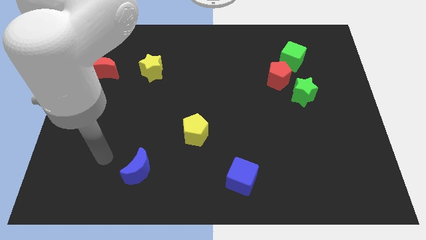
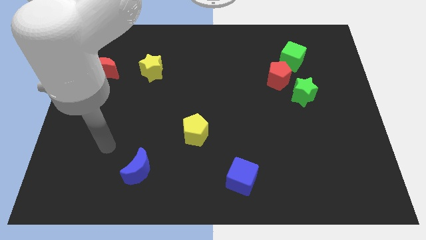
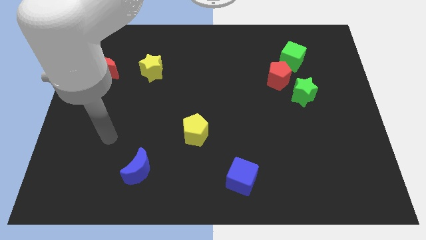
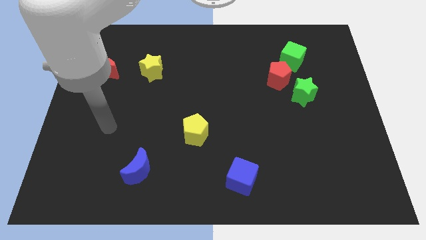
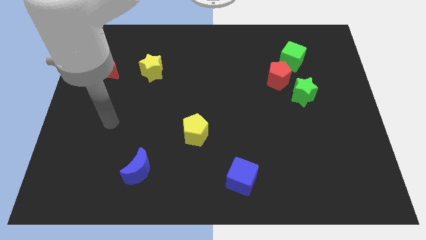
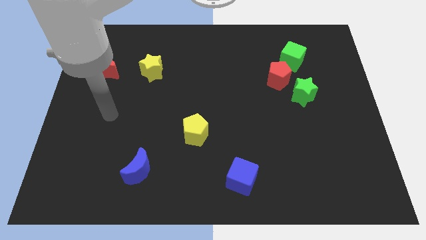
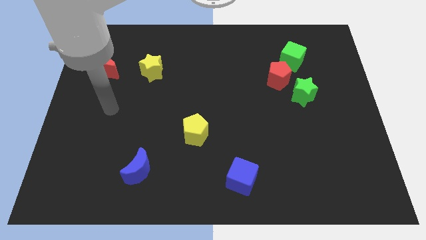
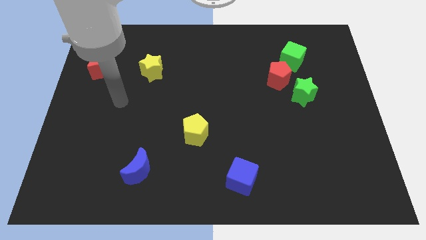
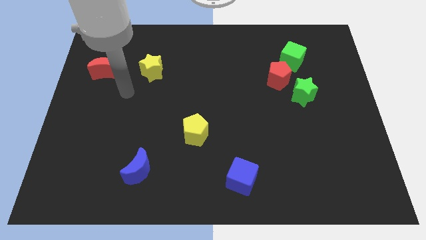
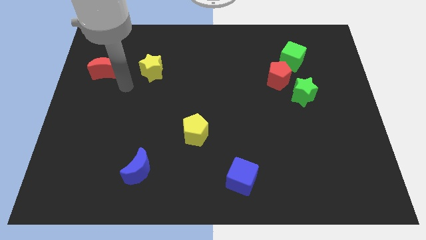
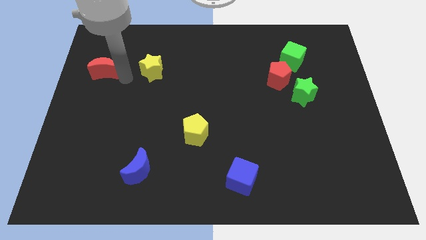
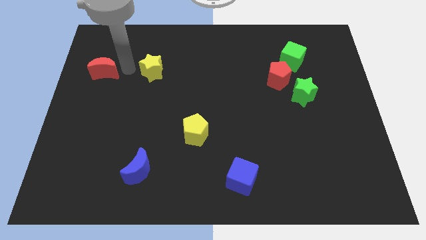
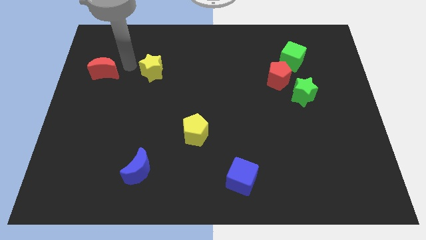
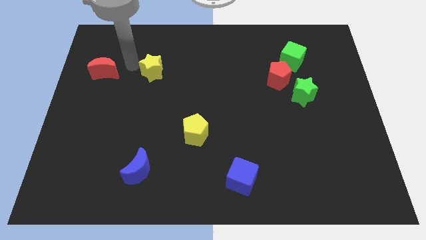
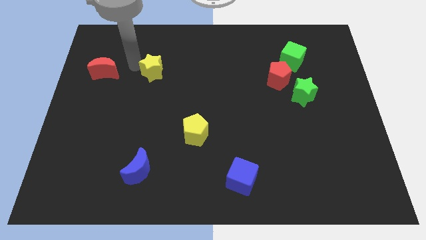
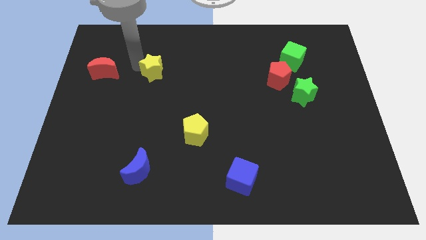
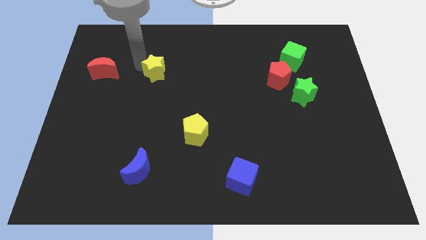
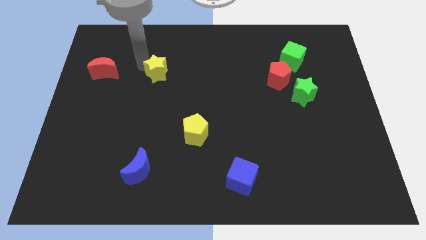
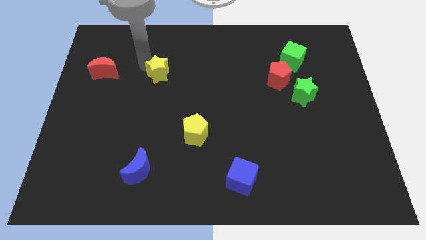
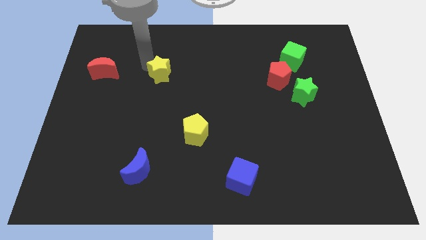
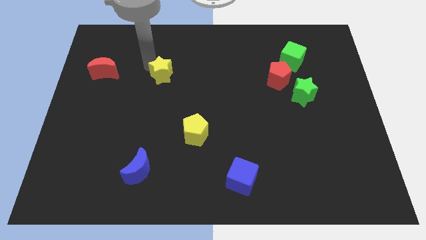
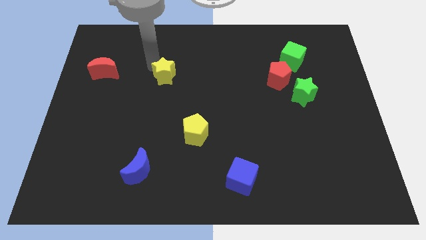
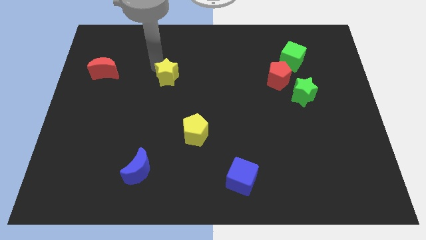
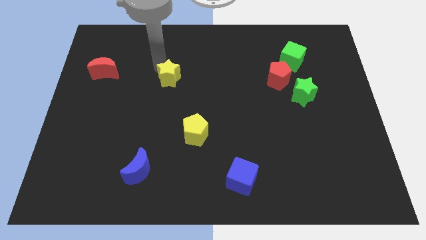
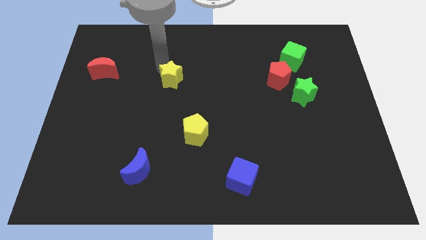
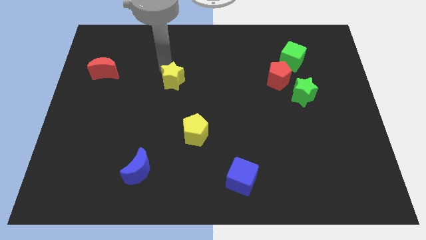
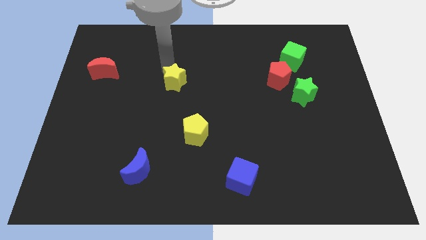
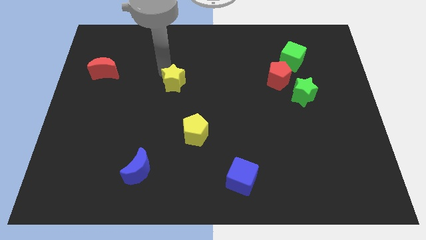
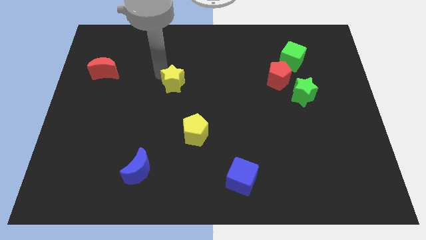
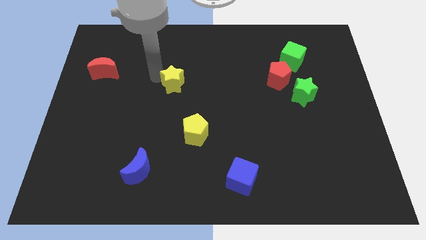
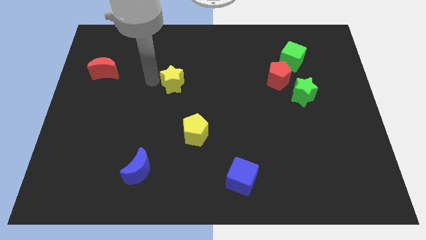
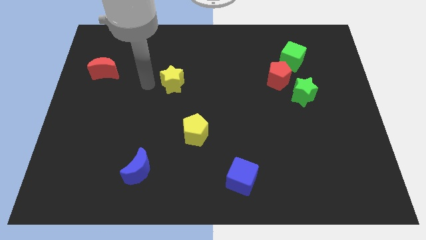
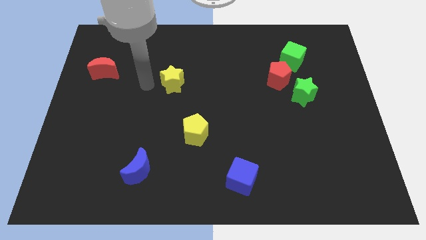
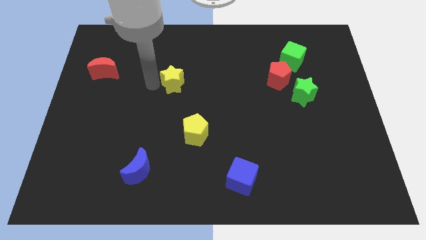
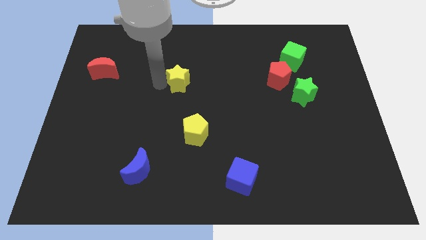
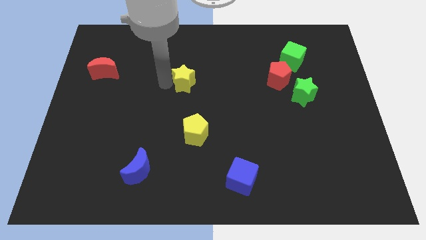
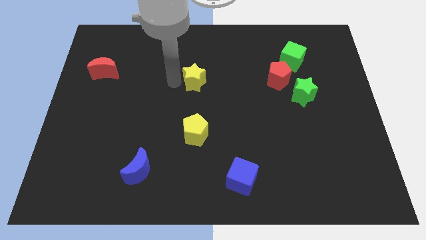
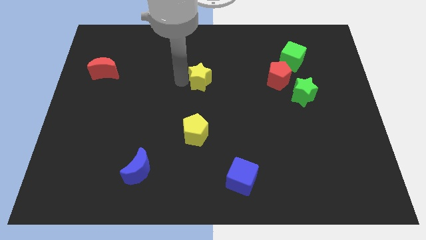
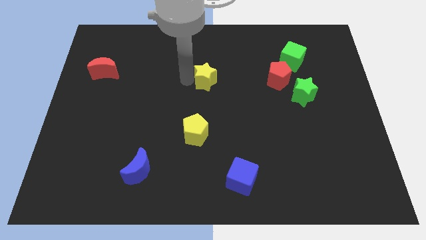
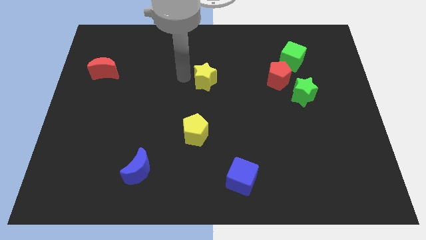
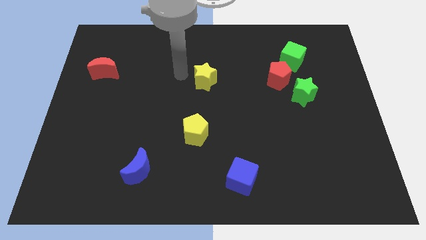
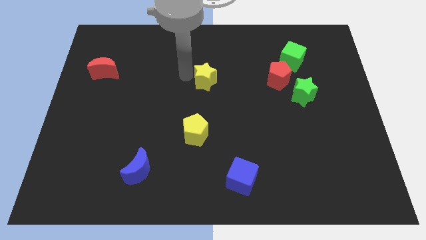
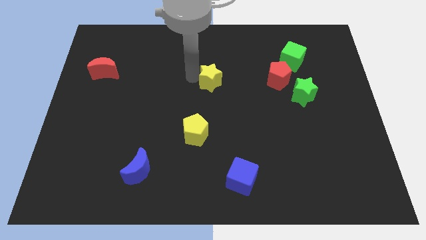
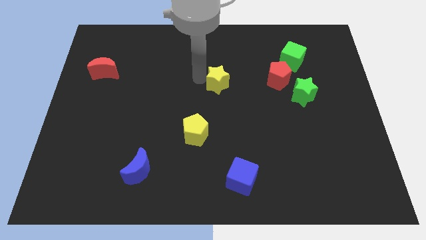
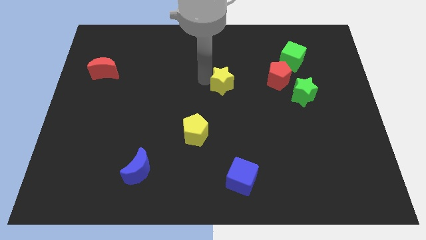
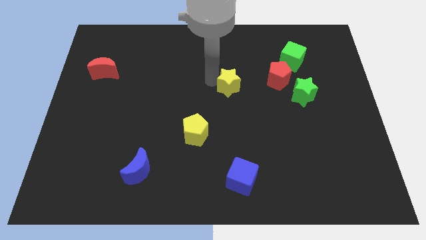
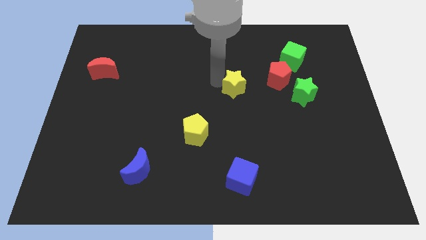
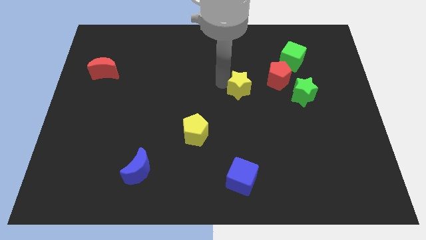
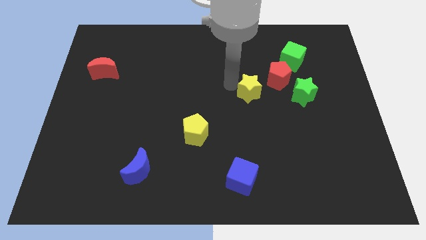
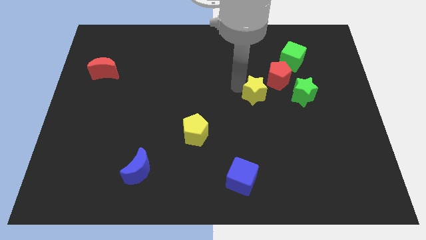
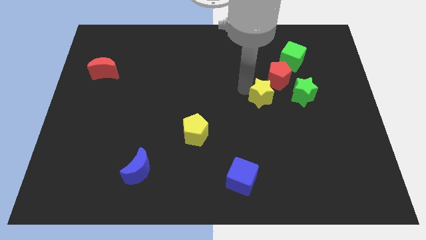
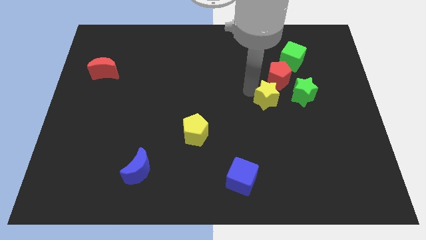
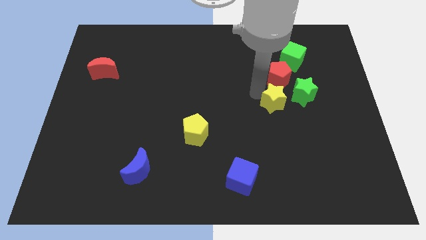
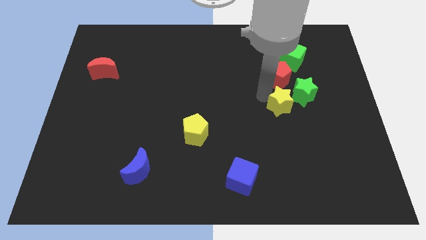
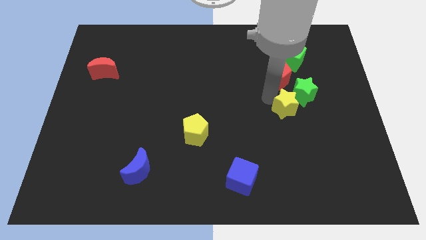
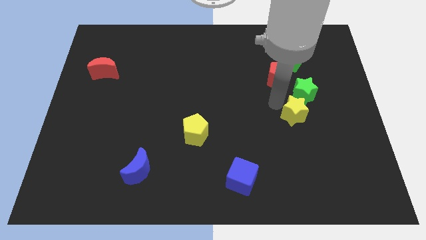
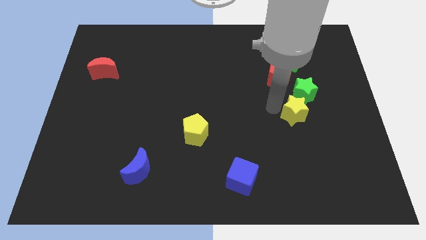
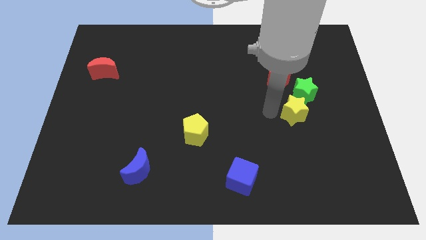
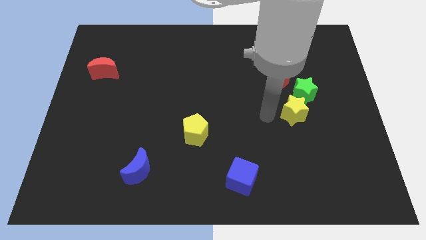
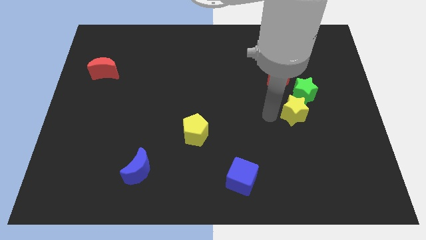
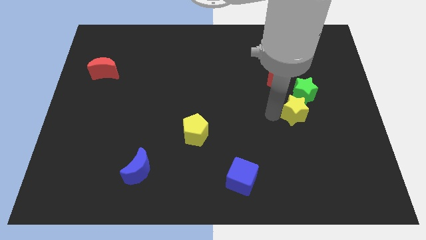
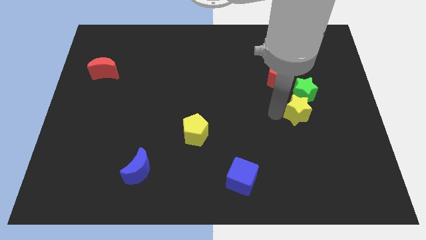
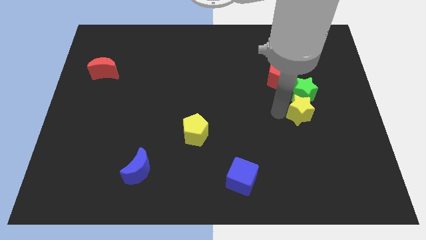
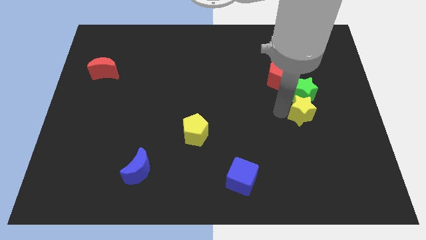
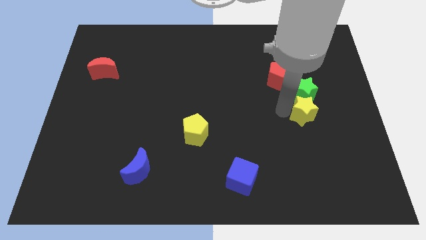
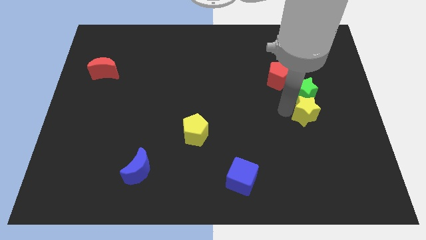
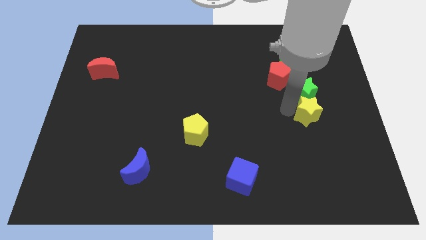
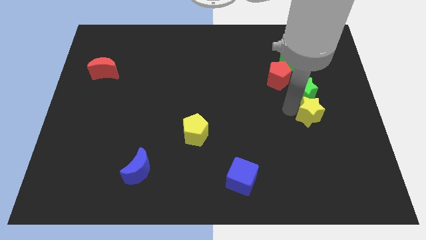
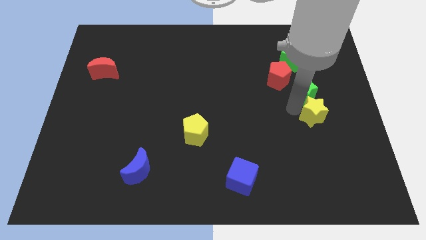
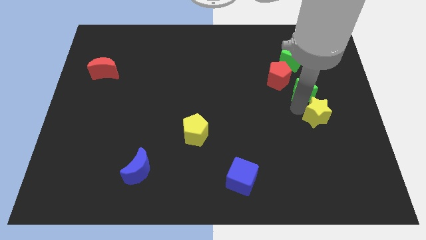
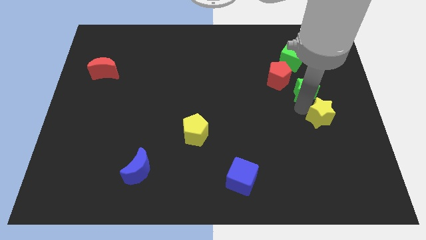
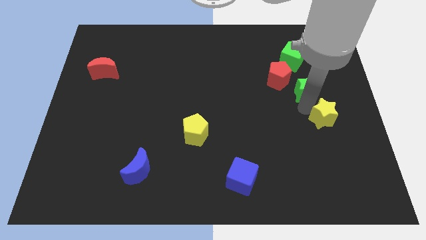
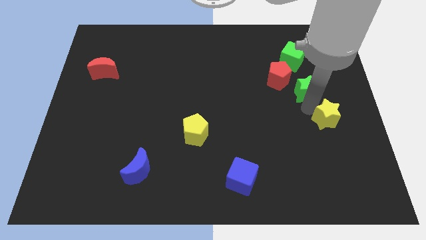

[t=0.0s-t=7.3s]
slide the yellow star to the right side
